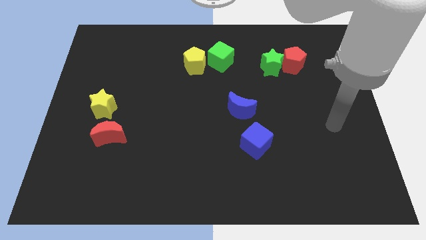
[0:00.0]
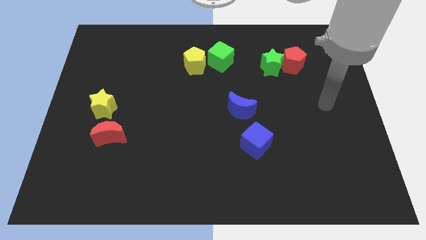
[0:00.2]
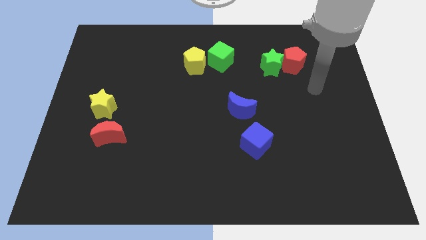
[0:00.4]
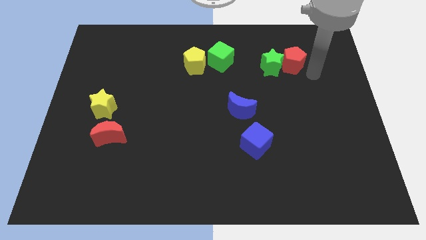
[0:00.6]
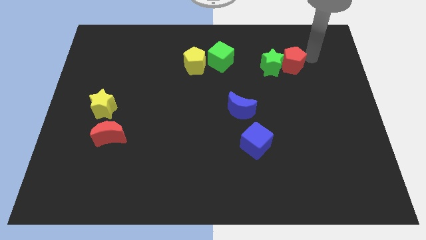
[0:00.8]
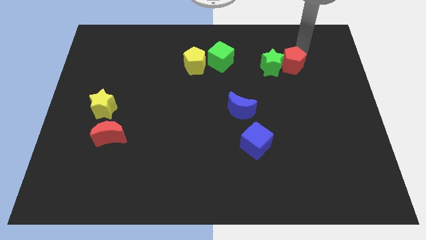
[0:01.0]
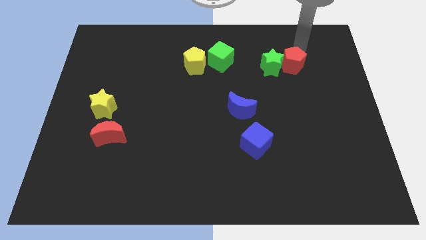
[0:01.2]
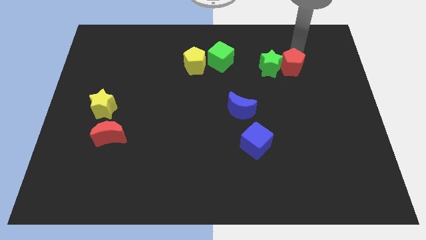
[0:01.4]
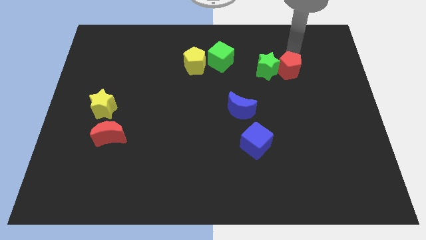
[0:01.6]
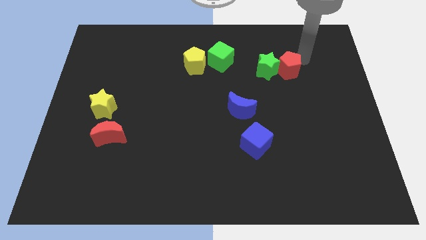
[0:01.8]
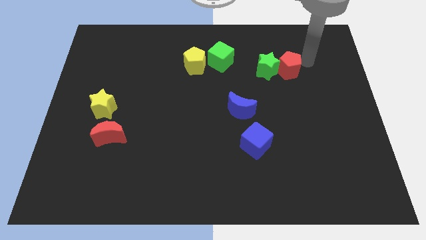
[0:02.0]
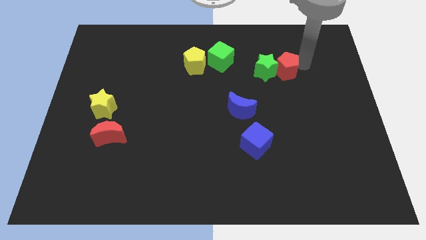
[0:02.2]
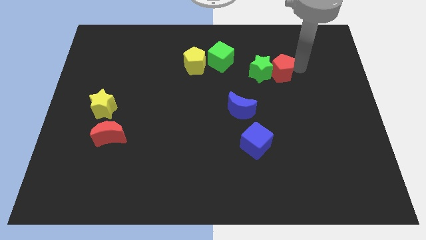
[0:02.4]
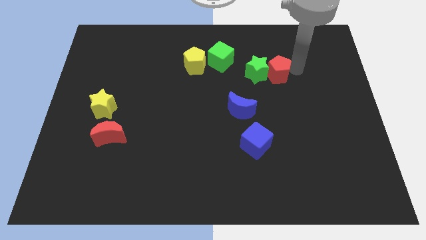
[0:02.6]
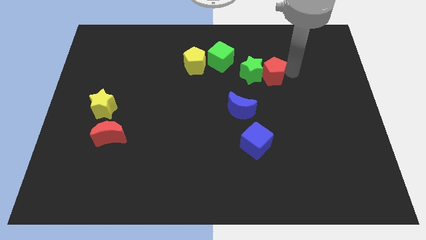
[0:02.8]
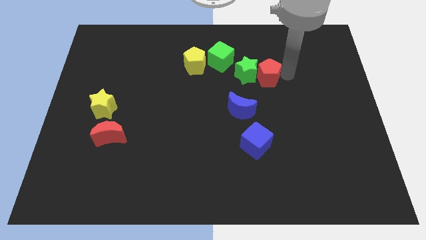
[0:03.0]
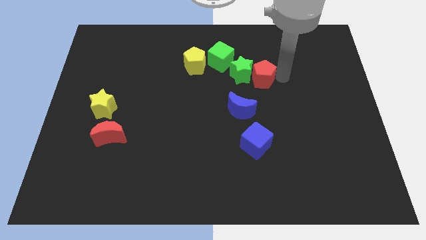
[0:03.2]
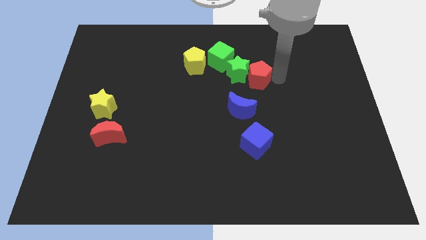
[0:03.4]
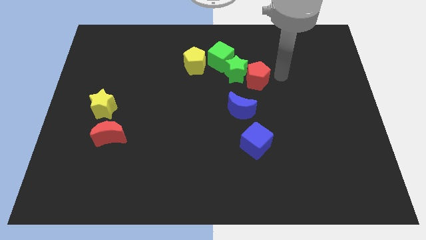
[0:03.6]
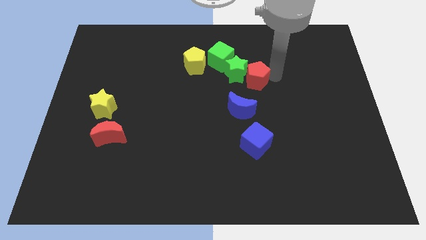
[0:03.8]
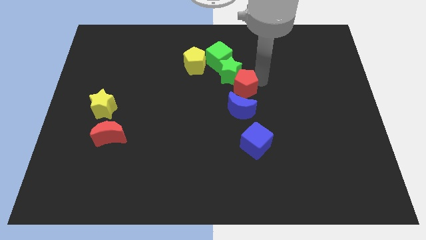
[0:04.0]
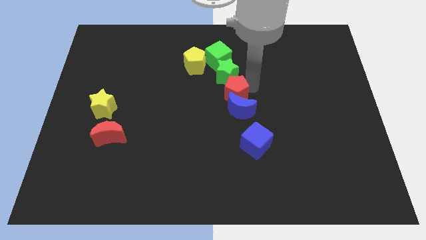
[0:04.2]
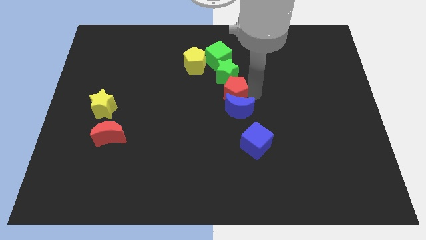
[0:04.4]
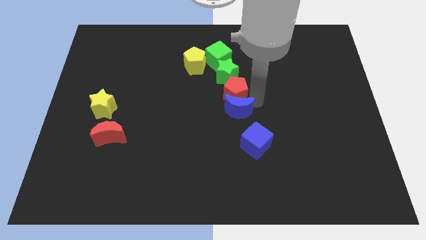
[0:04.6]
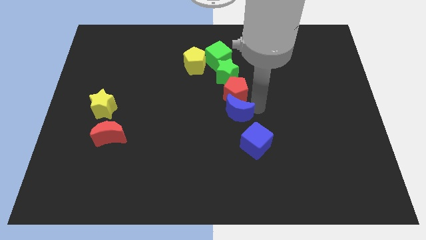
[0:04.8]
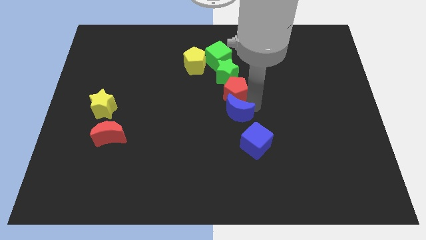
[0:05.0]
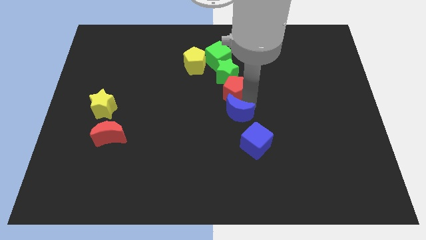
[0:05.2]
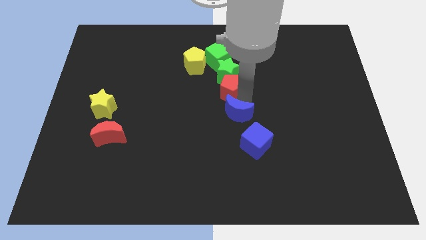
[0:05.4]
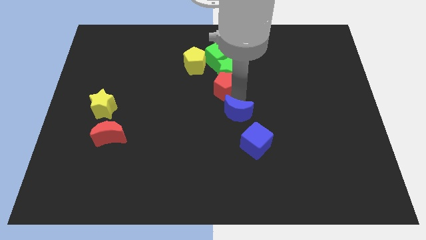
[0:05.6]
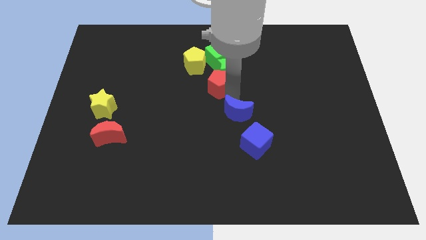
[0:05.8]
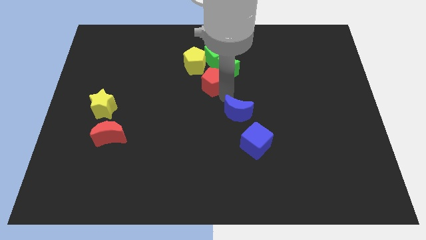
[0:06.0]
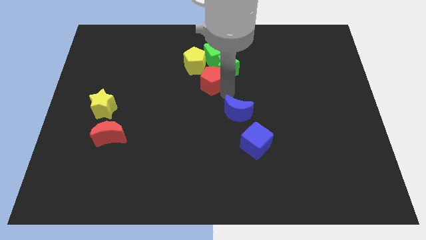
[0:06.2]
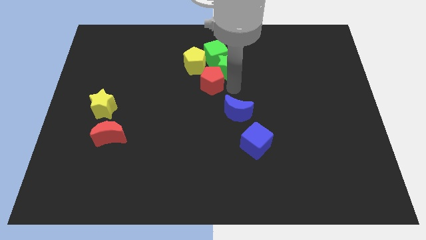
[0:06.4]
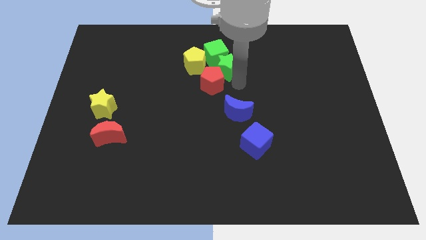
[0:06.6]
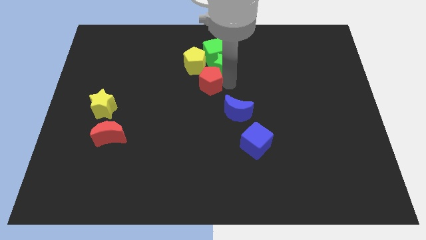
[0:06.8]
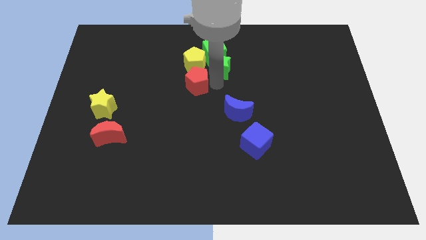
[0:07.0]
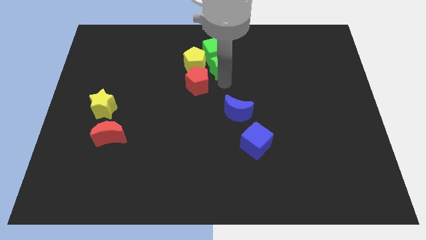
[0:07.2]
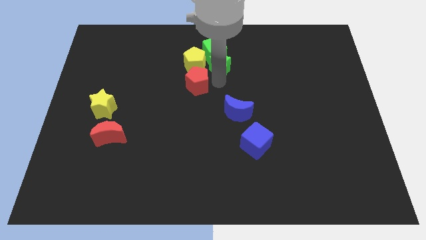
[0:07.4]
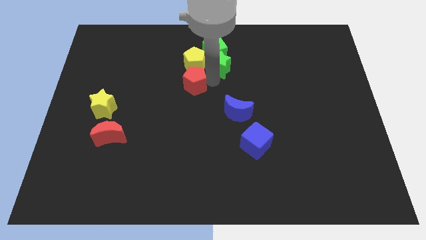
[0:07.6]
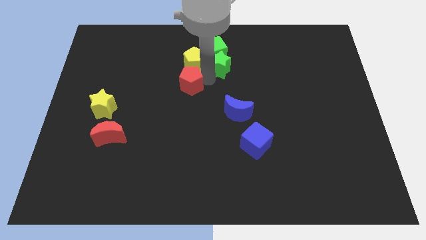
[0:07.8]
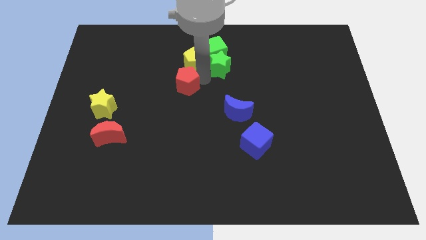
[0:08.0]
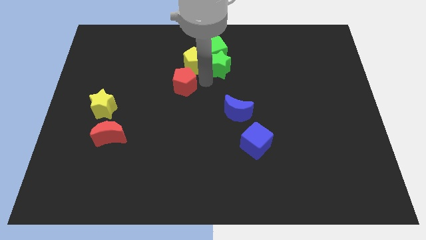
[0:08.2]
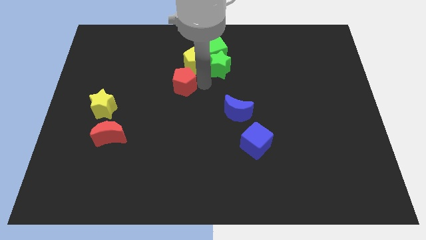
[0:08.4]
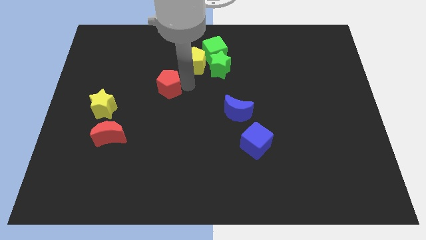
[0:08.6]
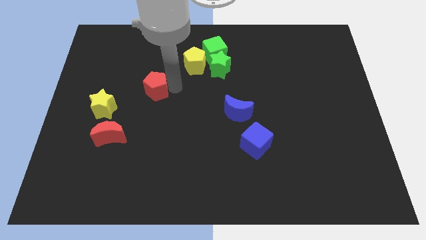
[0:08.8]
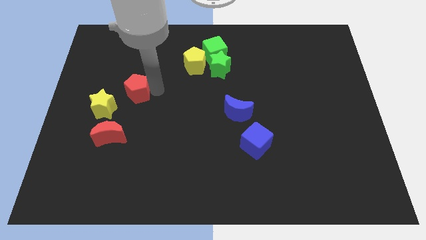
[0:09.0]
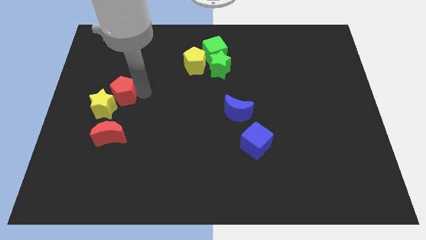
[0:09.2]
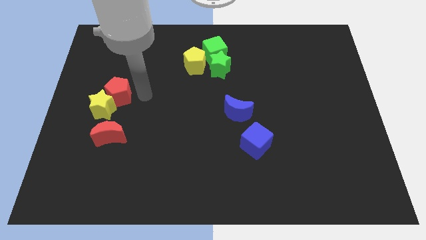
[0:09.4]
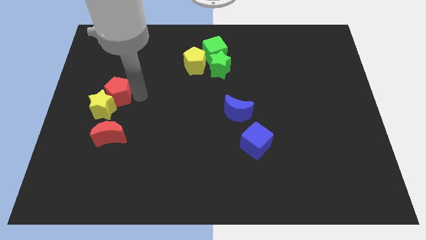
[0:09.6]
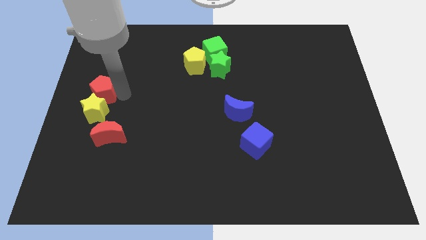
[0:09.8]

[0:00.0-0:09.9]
slide the red pentagon to the left side

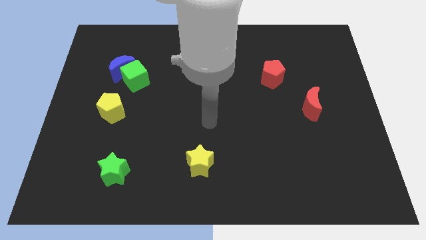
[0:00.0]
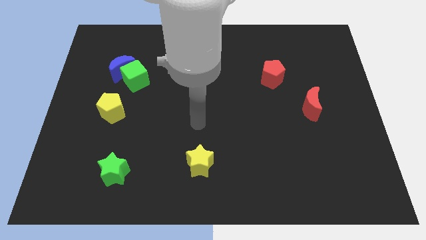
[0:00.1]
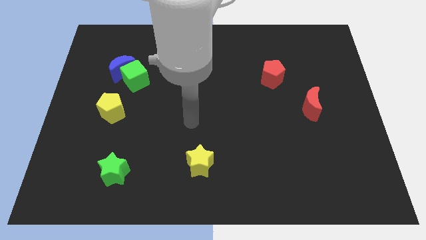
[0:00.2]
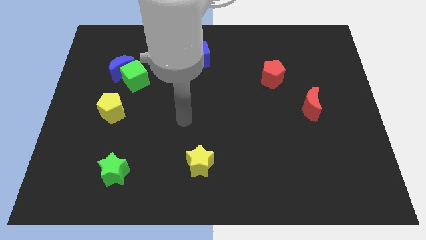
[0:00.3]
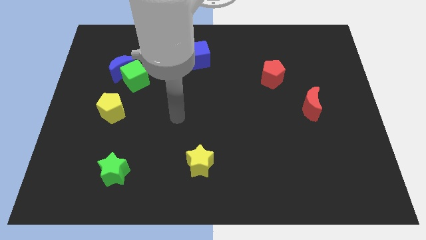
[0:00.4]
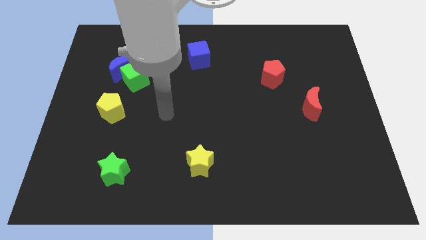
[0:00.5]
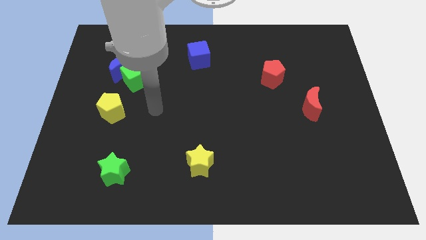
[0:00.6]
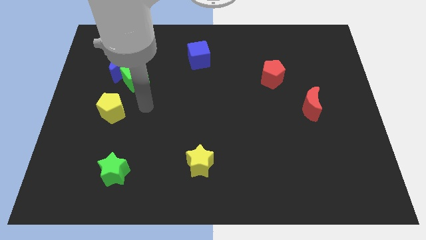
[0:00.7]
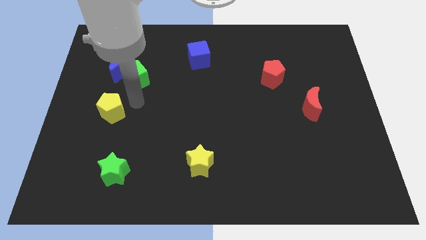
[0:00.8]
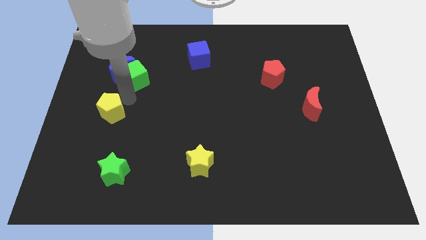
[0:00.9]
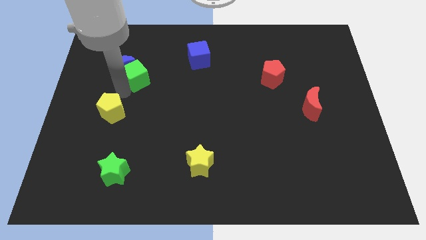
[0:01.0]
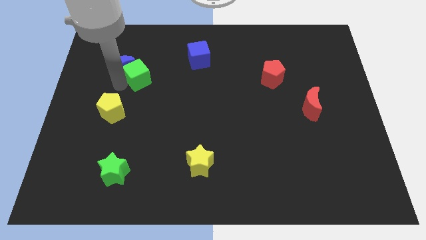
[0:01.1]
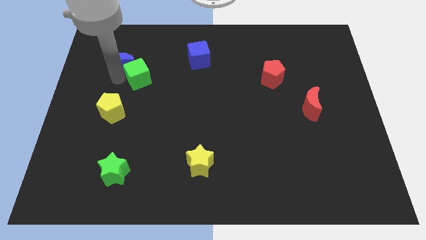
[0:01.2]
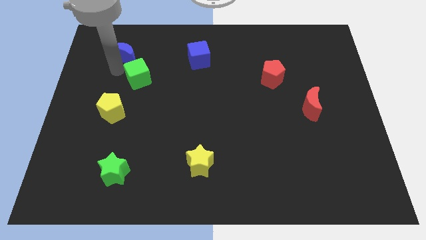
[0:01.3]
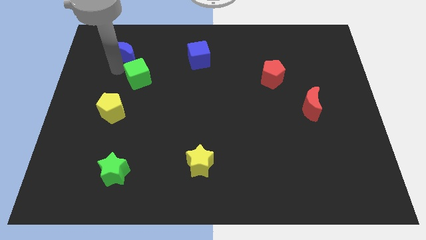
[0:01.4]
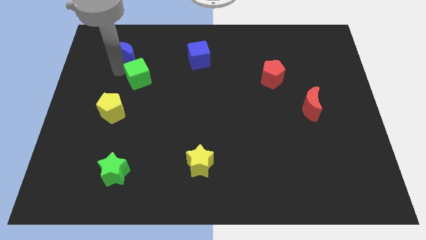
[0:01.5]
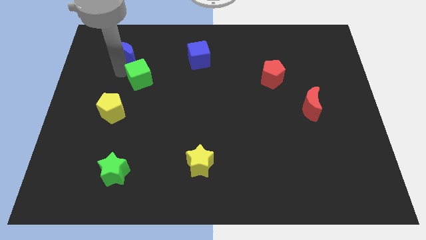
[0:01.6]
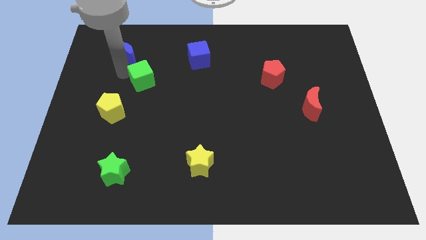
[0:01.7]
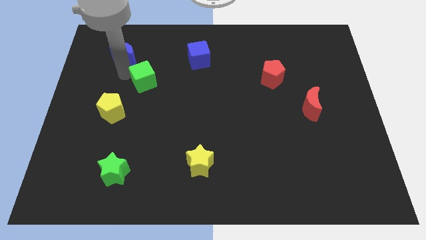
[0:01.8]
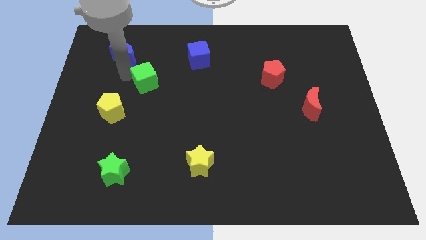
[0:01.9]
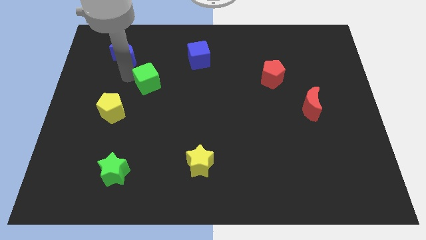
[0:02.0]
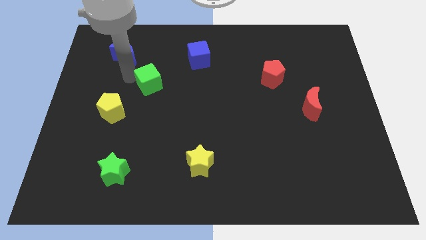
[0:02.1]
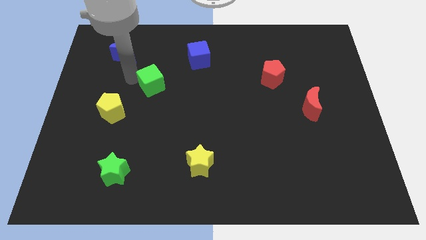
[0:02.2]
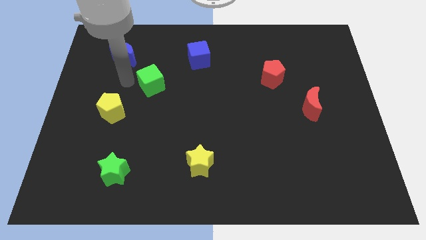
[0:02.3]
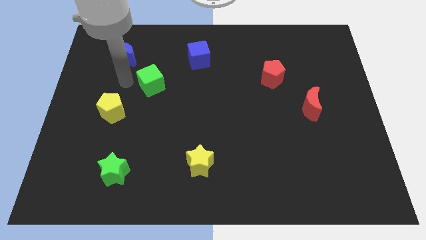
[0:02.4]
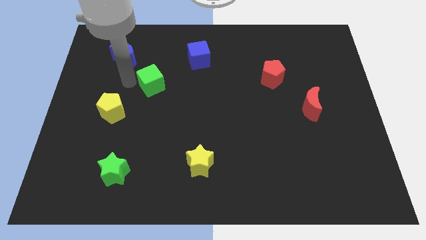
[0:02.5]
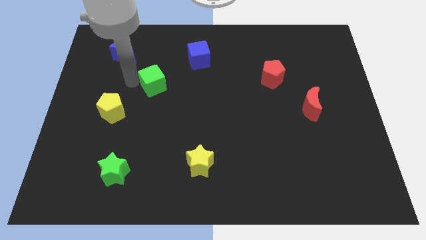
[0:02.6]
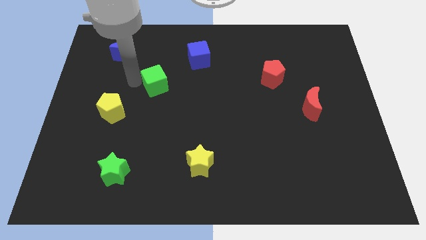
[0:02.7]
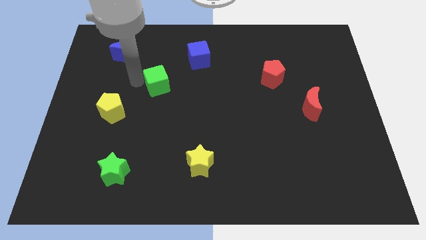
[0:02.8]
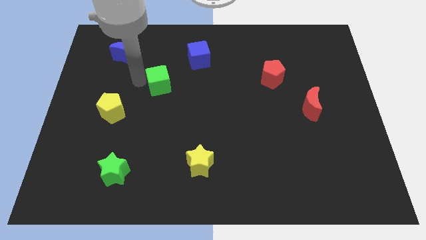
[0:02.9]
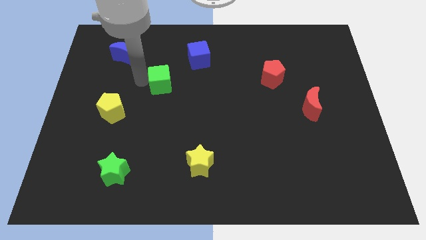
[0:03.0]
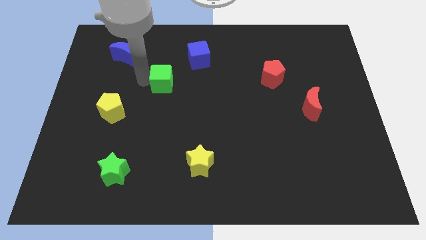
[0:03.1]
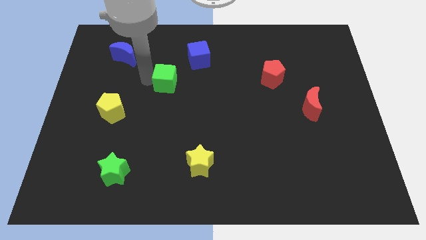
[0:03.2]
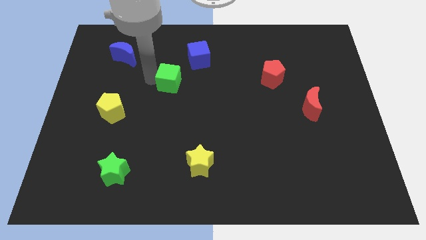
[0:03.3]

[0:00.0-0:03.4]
put the green cube to the center of the board
